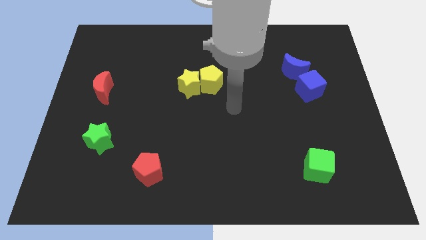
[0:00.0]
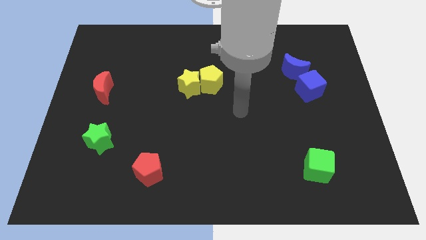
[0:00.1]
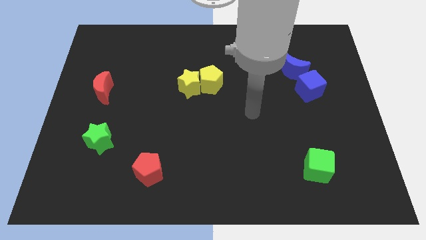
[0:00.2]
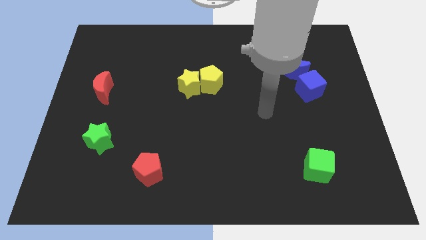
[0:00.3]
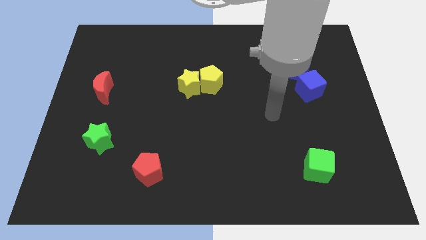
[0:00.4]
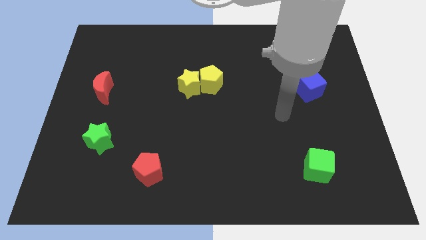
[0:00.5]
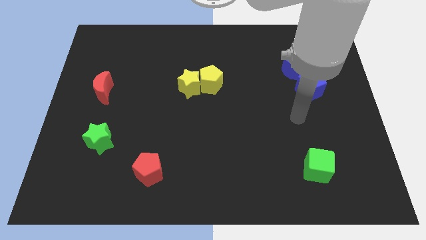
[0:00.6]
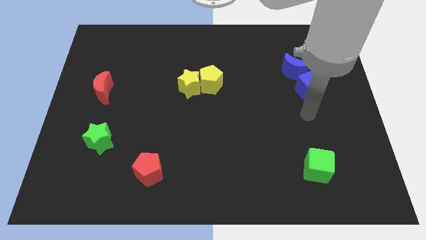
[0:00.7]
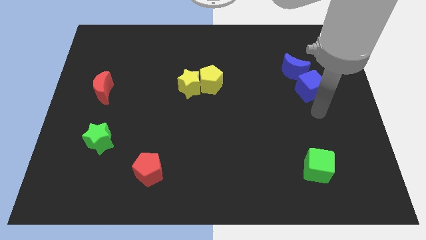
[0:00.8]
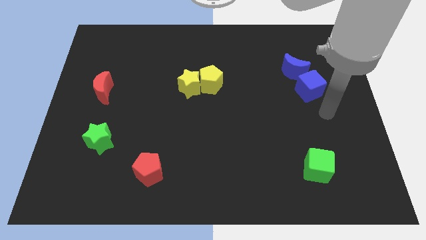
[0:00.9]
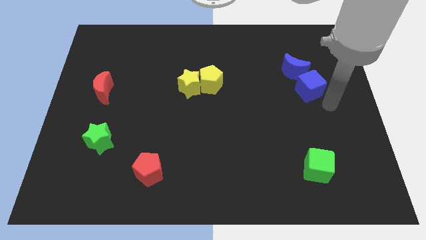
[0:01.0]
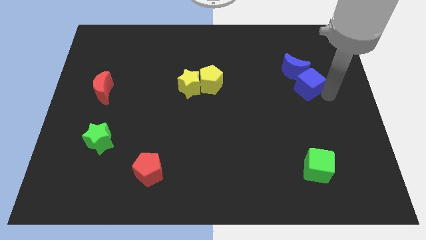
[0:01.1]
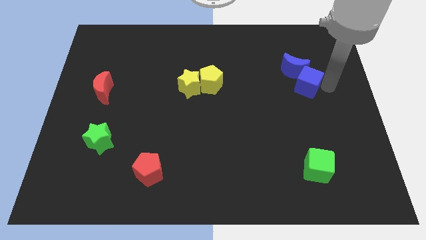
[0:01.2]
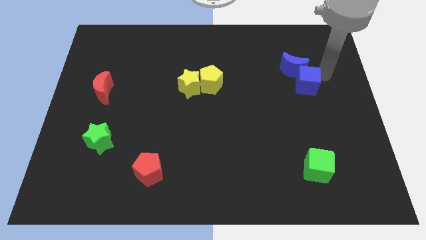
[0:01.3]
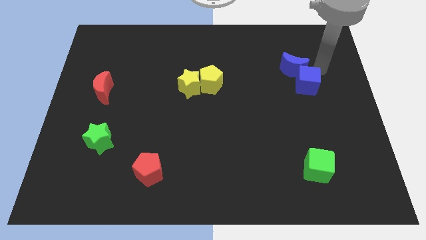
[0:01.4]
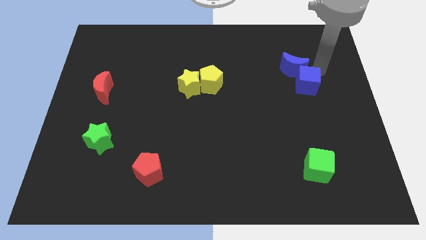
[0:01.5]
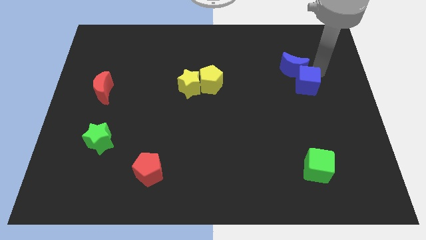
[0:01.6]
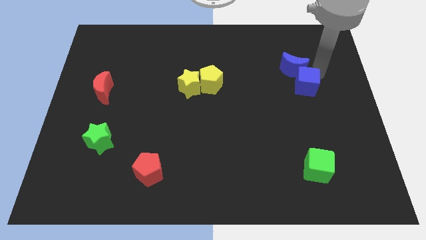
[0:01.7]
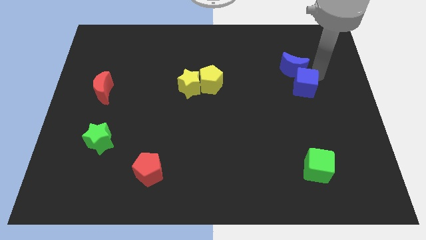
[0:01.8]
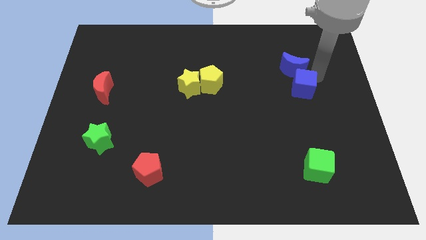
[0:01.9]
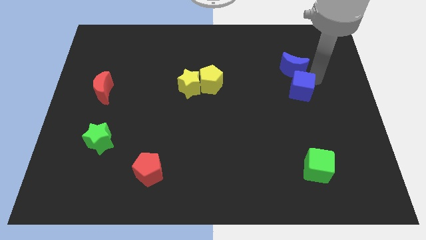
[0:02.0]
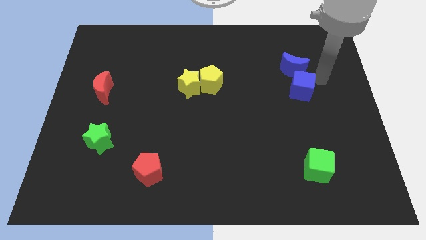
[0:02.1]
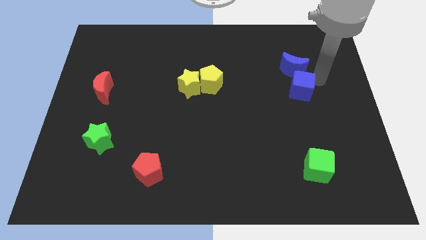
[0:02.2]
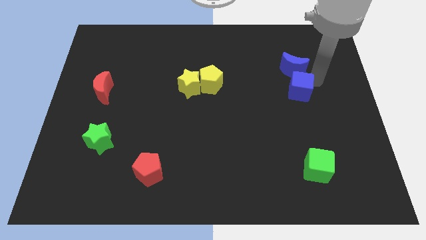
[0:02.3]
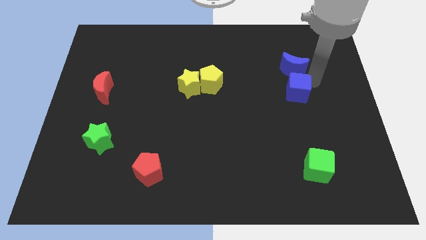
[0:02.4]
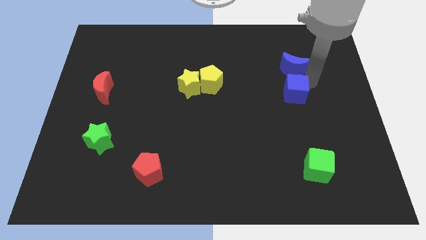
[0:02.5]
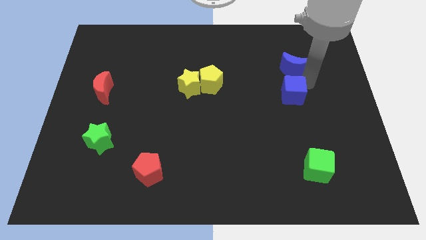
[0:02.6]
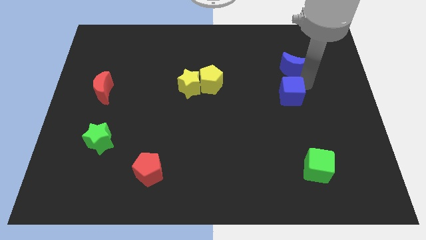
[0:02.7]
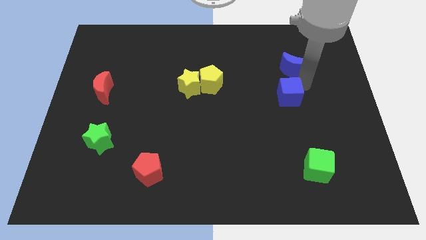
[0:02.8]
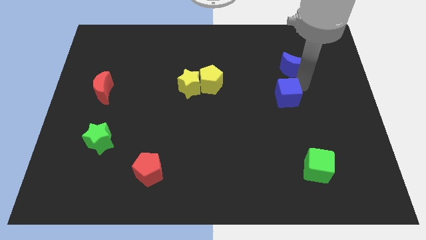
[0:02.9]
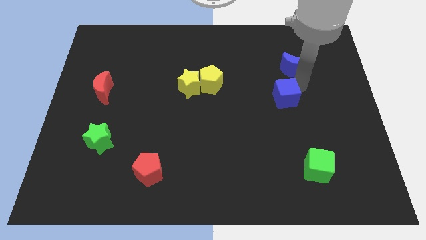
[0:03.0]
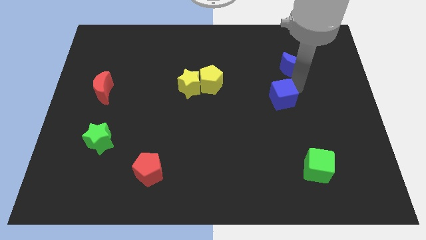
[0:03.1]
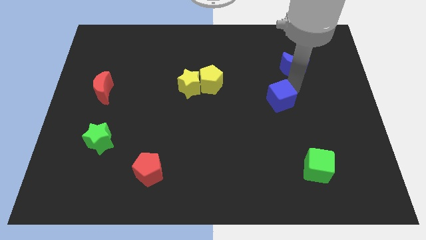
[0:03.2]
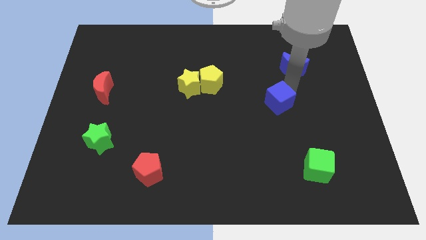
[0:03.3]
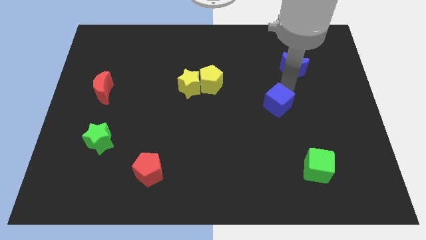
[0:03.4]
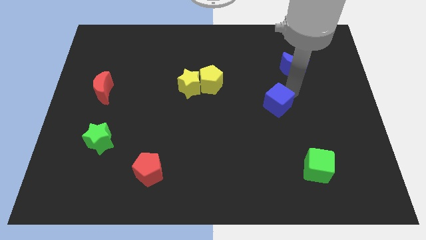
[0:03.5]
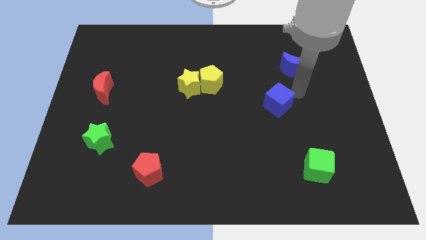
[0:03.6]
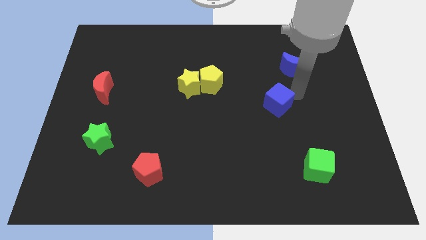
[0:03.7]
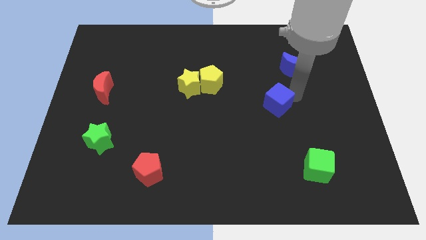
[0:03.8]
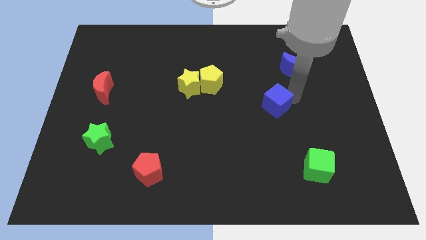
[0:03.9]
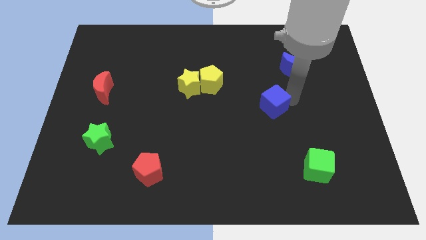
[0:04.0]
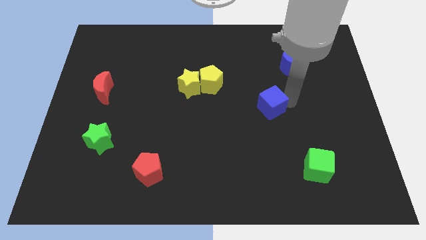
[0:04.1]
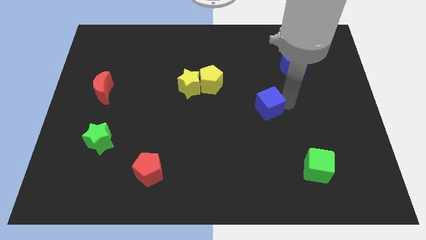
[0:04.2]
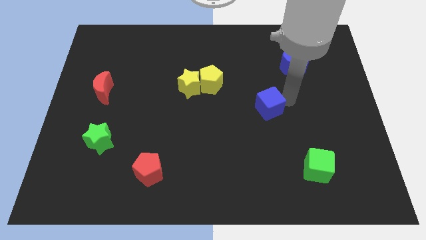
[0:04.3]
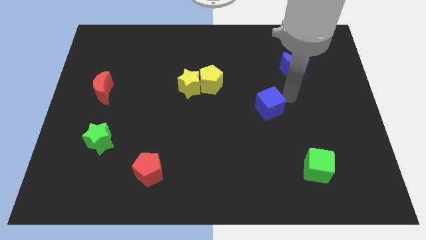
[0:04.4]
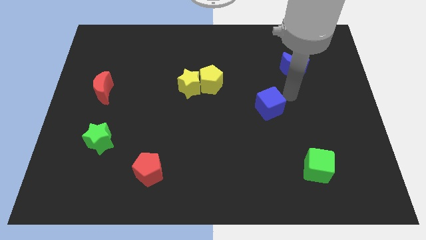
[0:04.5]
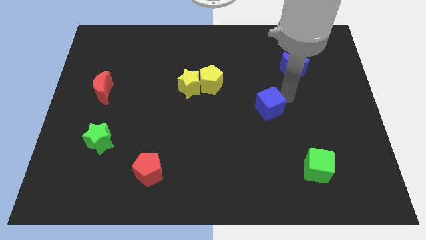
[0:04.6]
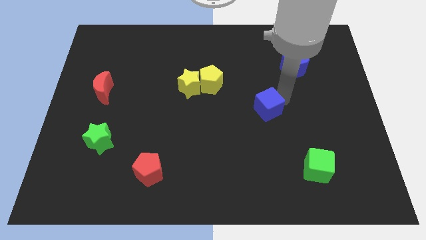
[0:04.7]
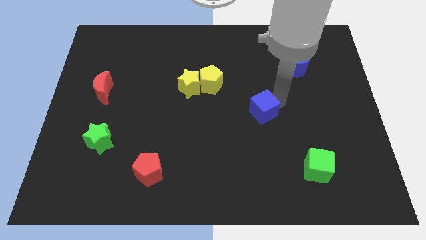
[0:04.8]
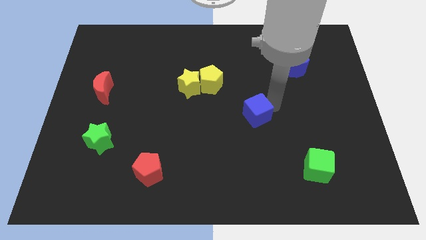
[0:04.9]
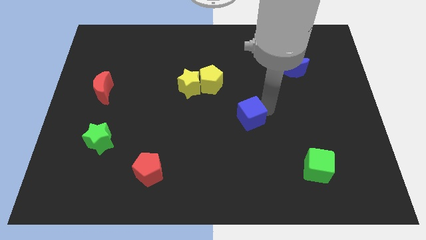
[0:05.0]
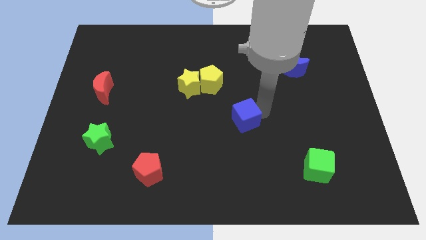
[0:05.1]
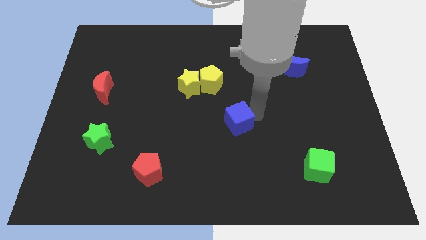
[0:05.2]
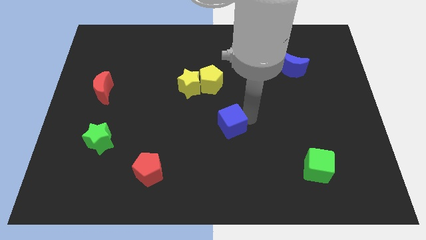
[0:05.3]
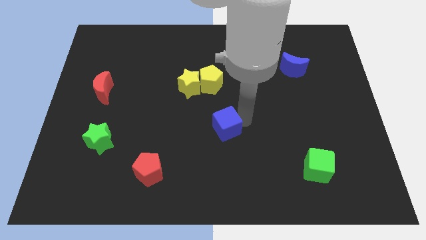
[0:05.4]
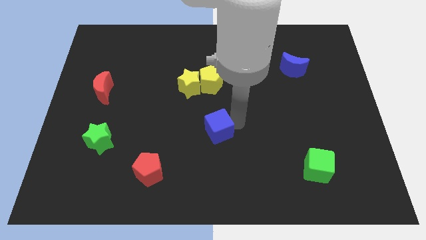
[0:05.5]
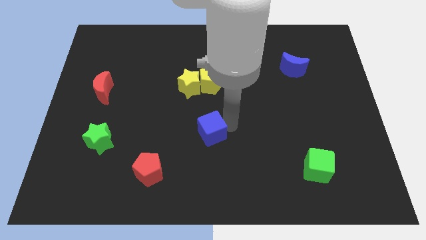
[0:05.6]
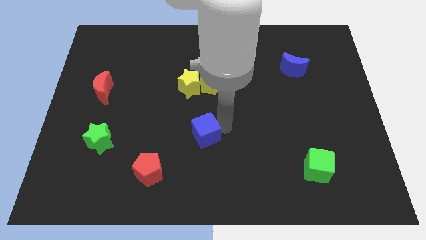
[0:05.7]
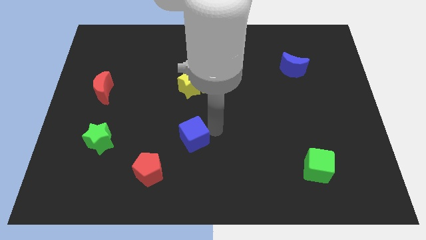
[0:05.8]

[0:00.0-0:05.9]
move the blue cube to the top right side of the red pentagon
